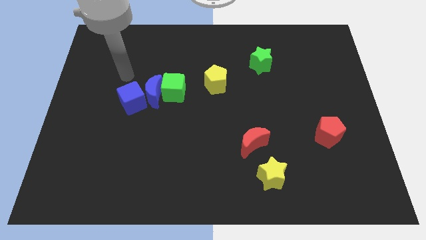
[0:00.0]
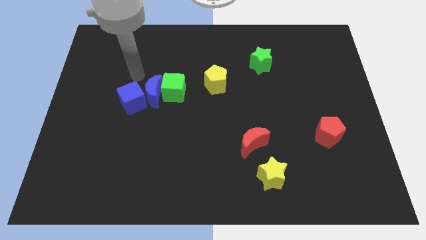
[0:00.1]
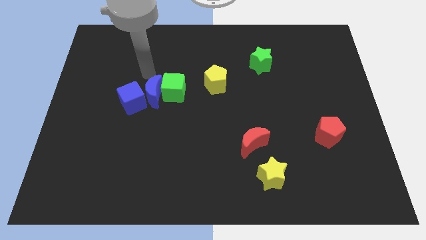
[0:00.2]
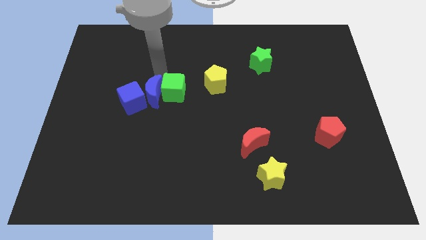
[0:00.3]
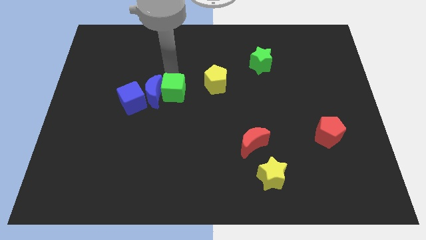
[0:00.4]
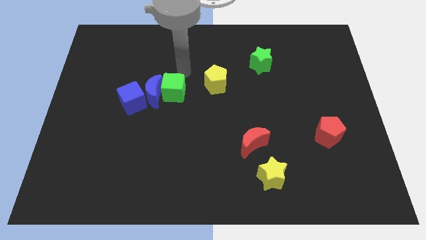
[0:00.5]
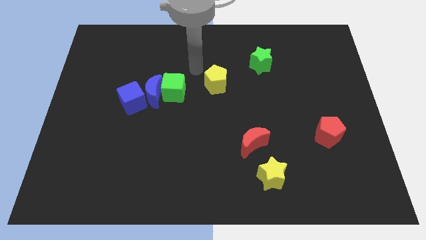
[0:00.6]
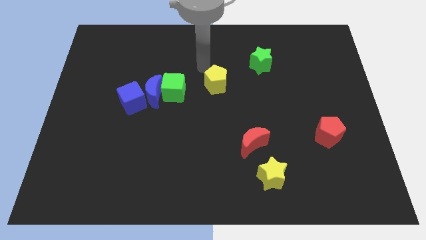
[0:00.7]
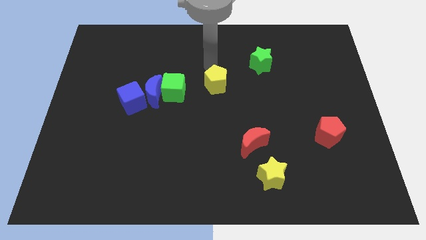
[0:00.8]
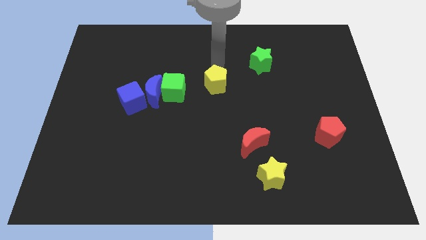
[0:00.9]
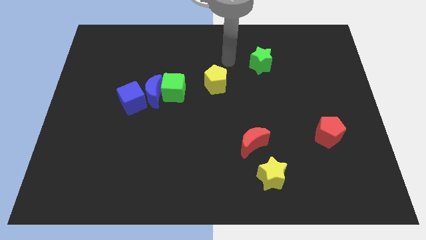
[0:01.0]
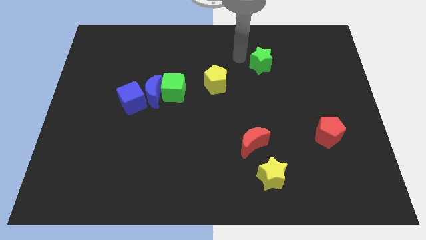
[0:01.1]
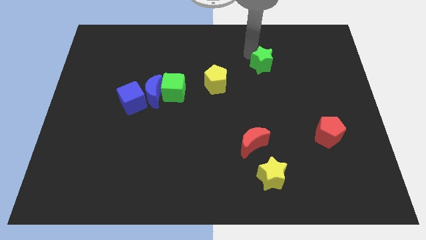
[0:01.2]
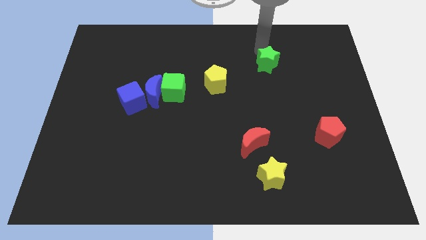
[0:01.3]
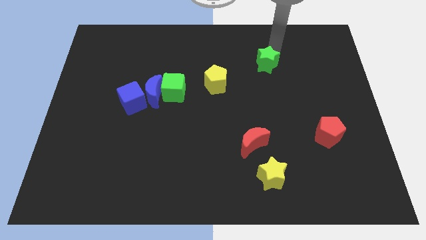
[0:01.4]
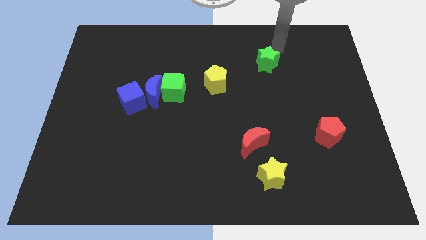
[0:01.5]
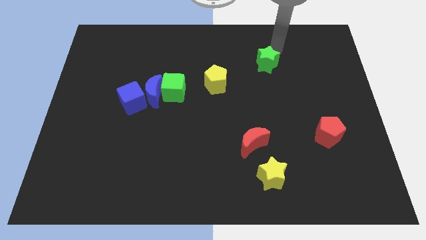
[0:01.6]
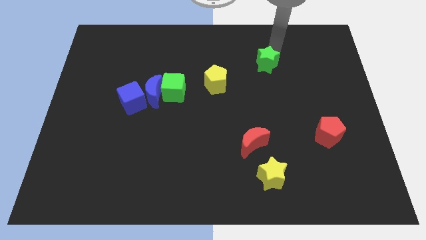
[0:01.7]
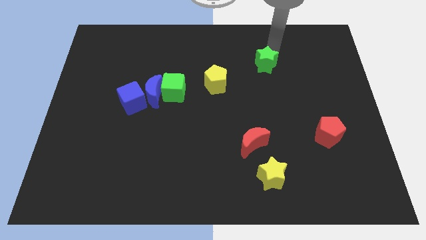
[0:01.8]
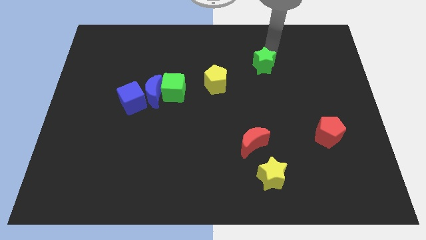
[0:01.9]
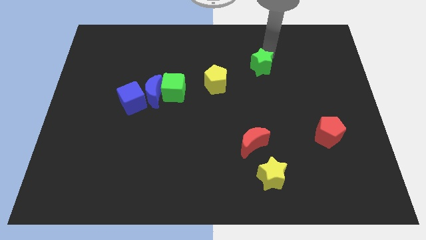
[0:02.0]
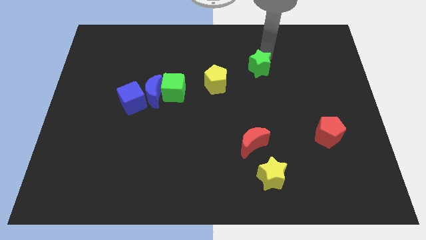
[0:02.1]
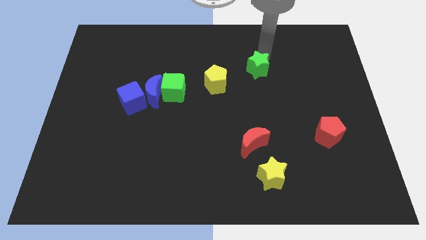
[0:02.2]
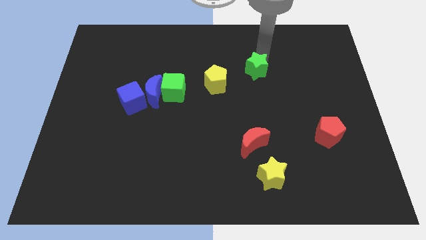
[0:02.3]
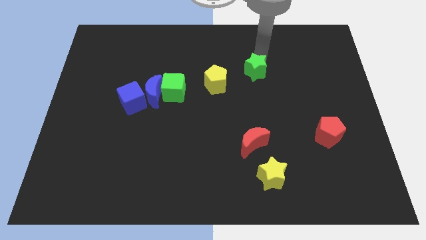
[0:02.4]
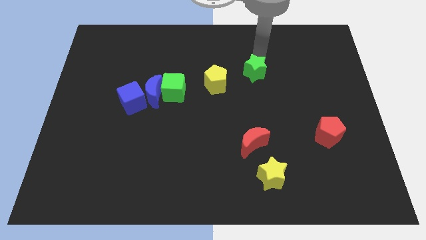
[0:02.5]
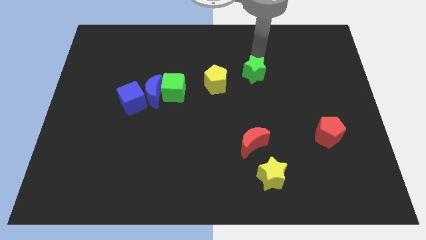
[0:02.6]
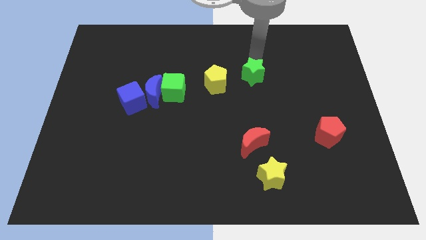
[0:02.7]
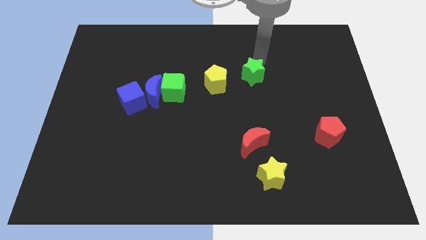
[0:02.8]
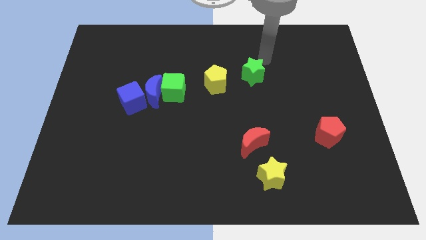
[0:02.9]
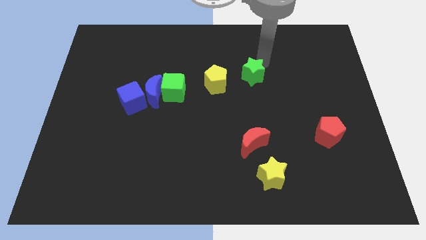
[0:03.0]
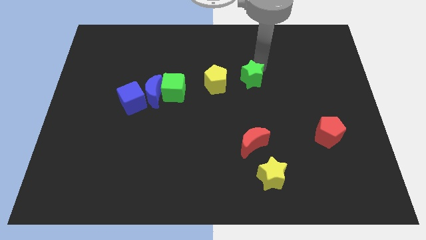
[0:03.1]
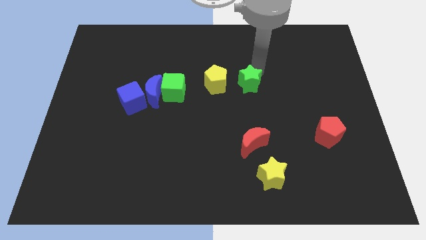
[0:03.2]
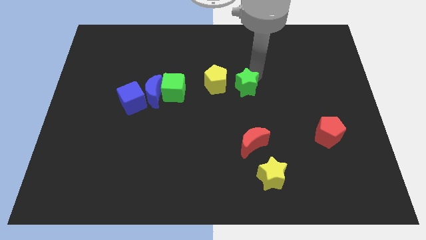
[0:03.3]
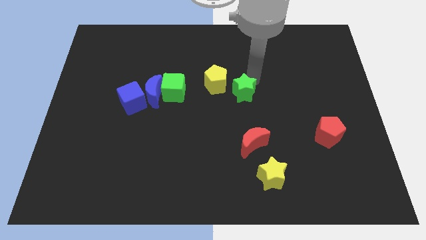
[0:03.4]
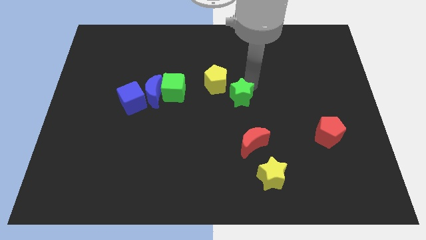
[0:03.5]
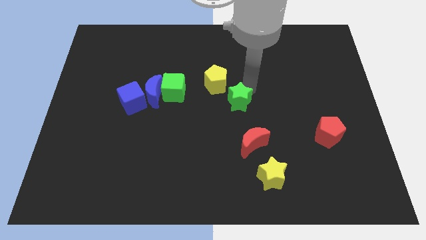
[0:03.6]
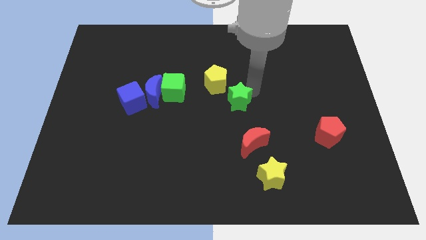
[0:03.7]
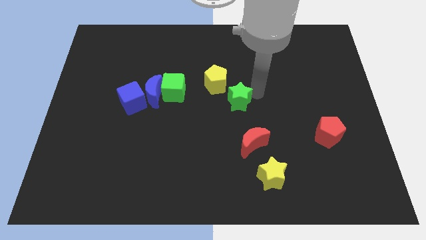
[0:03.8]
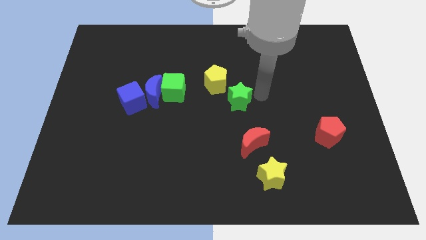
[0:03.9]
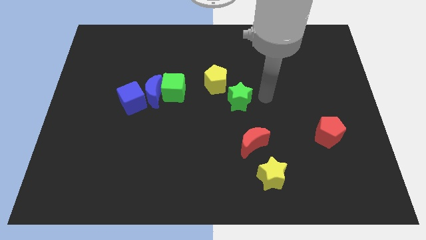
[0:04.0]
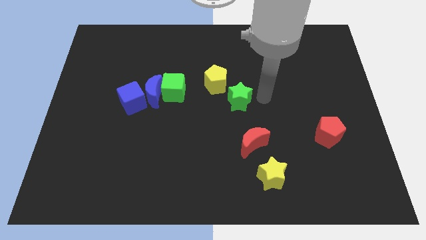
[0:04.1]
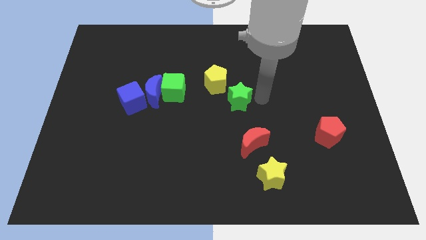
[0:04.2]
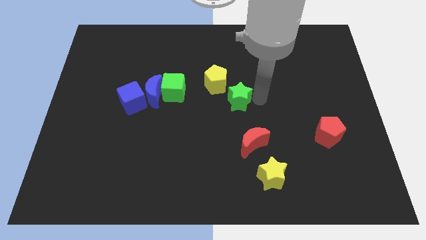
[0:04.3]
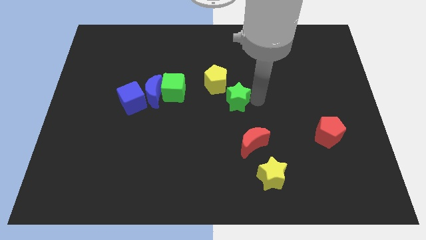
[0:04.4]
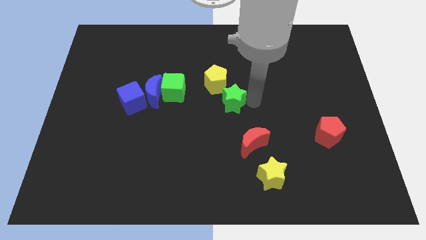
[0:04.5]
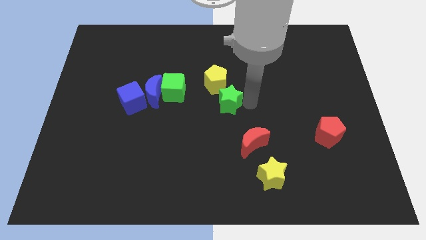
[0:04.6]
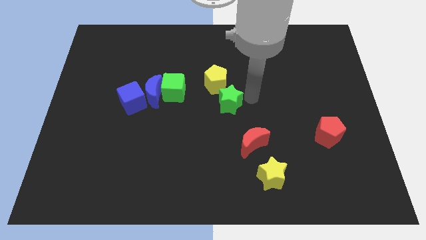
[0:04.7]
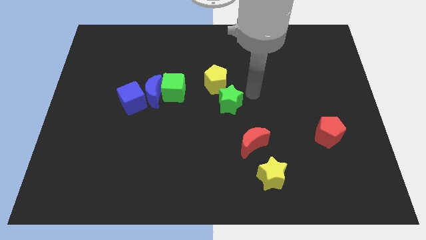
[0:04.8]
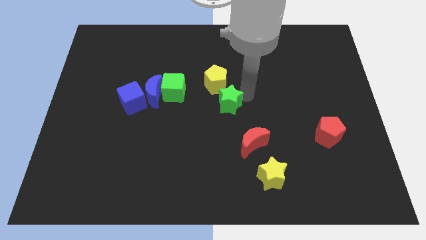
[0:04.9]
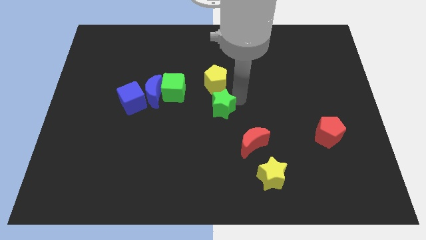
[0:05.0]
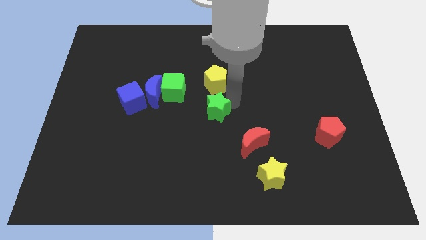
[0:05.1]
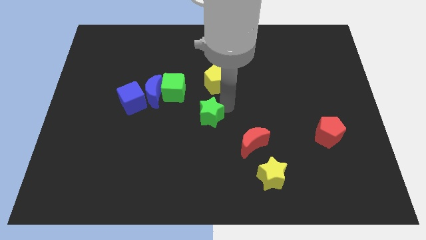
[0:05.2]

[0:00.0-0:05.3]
push the green star diagonally downwards and left

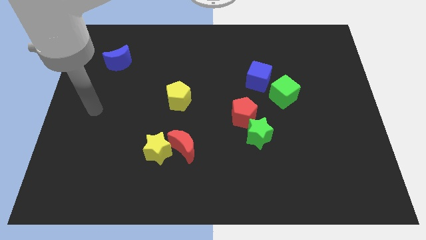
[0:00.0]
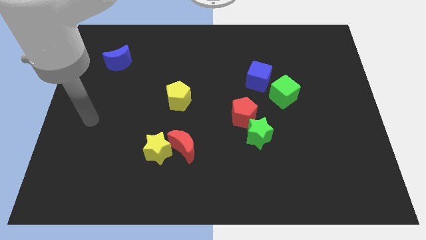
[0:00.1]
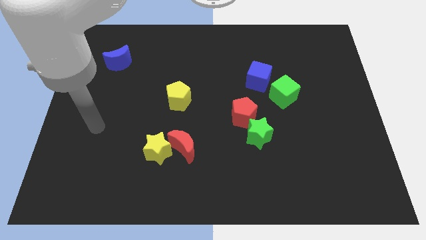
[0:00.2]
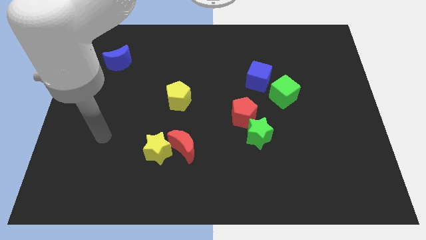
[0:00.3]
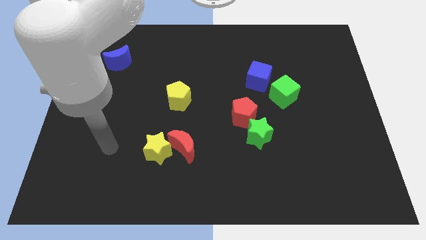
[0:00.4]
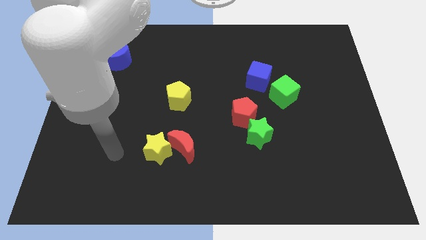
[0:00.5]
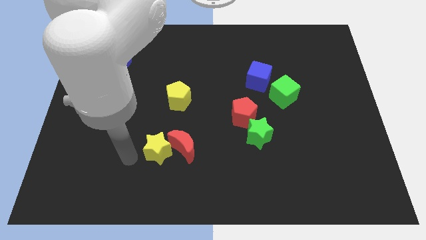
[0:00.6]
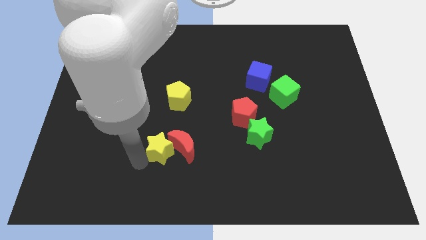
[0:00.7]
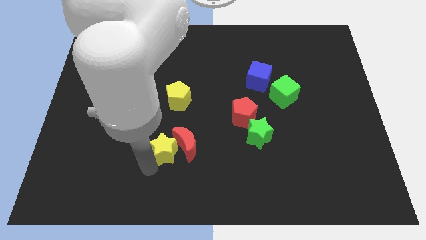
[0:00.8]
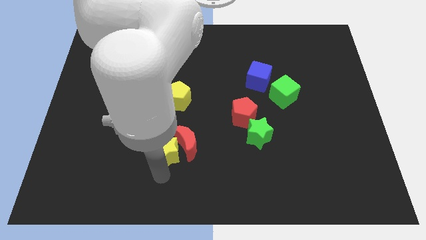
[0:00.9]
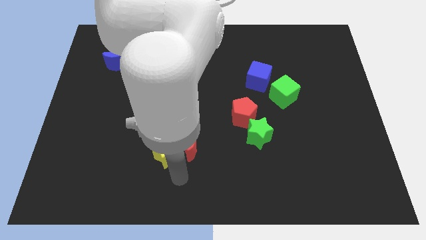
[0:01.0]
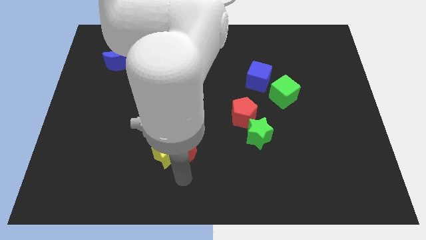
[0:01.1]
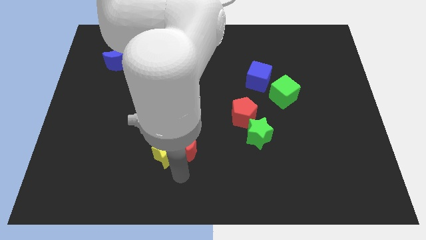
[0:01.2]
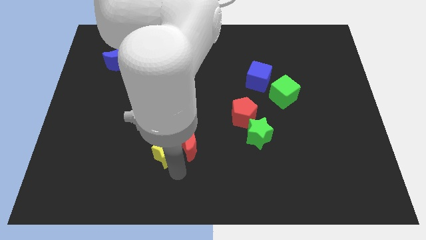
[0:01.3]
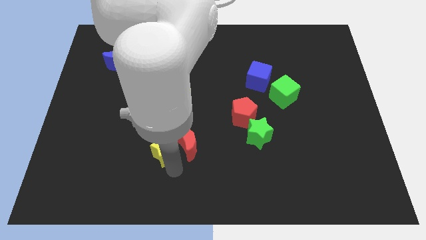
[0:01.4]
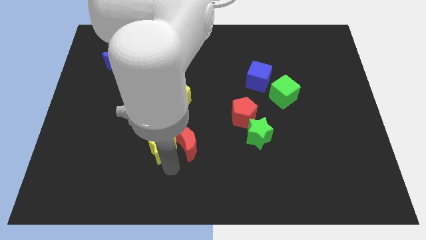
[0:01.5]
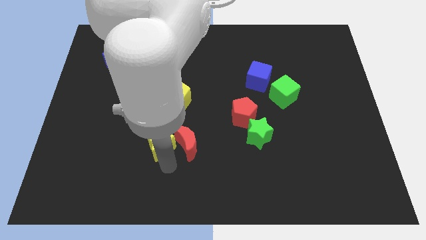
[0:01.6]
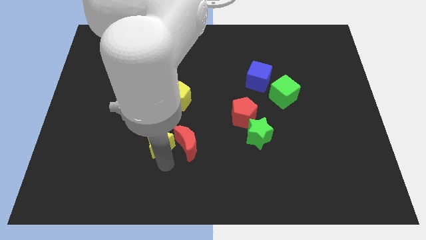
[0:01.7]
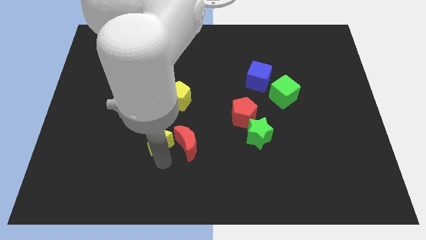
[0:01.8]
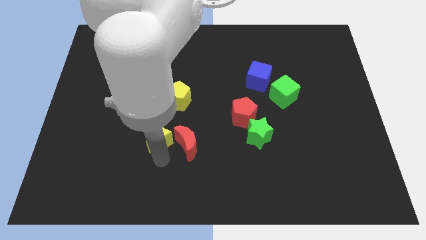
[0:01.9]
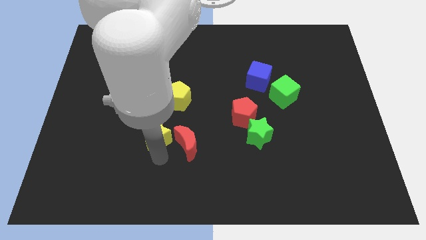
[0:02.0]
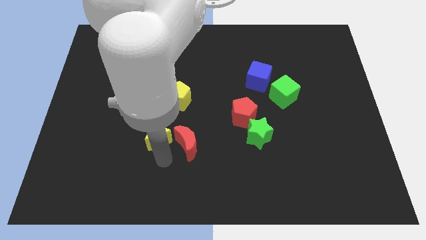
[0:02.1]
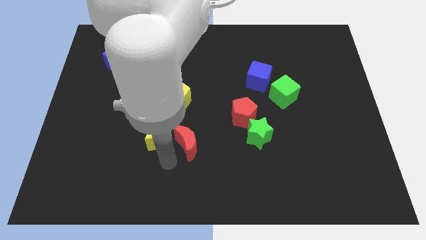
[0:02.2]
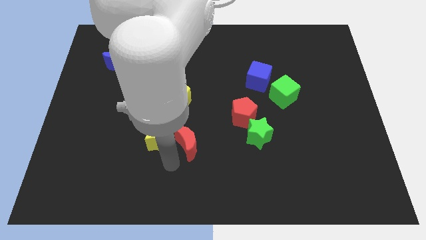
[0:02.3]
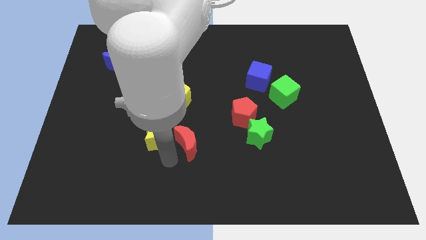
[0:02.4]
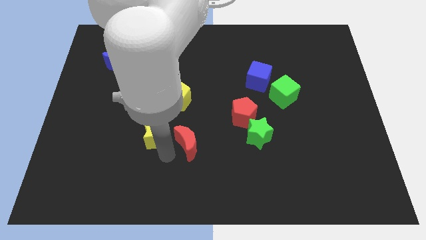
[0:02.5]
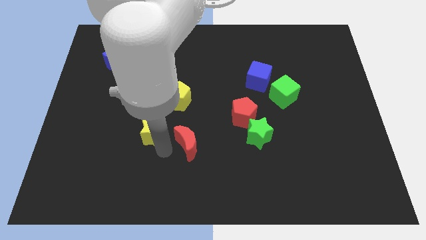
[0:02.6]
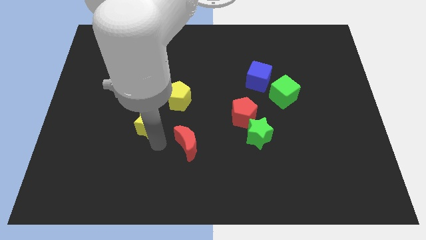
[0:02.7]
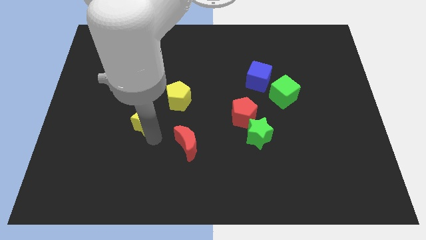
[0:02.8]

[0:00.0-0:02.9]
push the yellow star upwards somewhat
